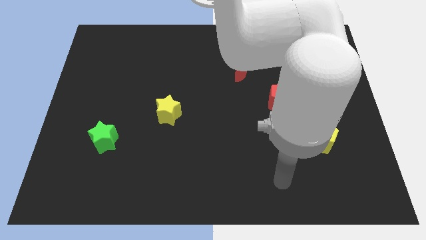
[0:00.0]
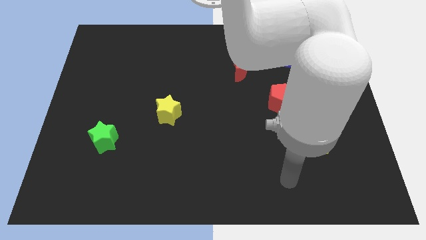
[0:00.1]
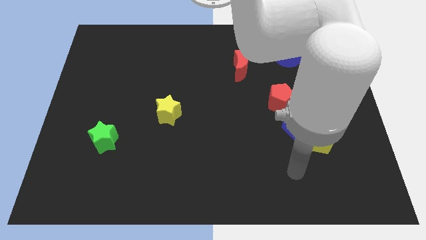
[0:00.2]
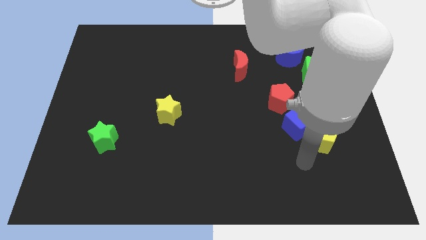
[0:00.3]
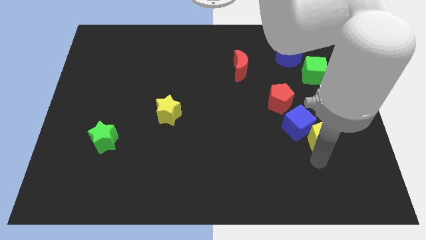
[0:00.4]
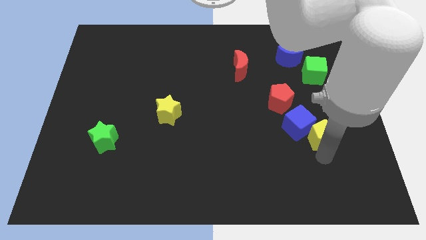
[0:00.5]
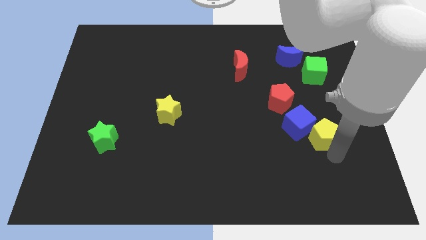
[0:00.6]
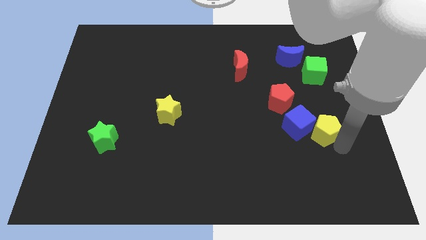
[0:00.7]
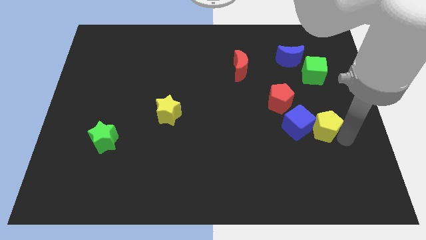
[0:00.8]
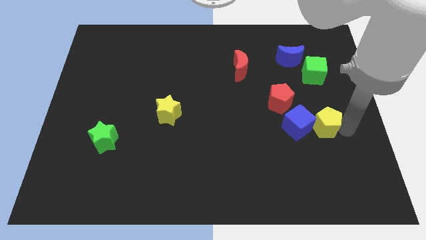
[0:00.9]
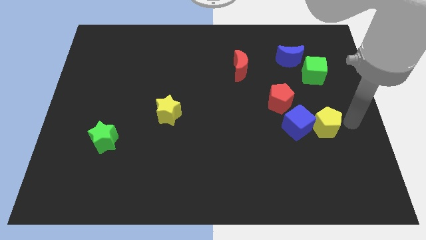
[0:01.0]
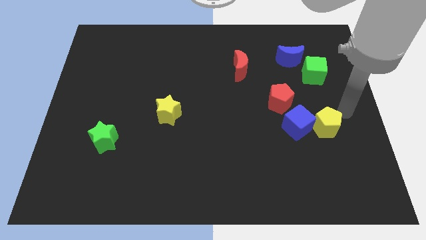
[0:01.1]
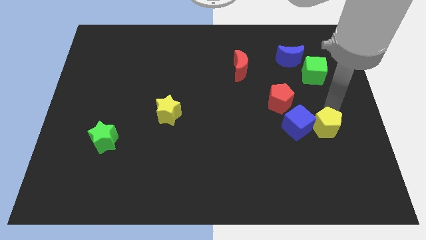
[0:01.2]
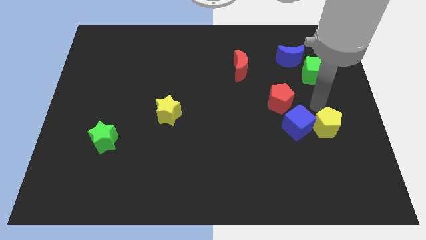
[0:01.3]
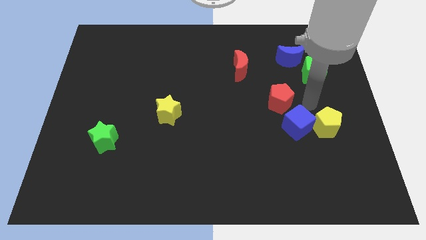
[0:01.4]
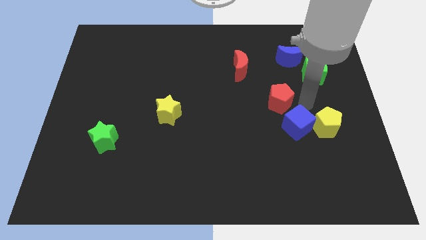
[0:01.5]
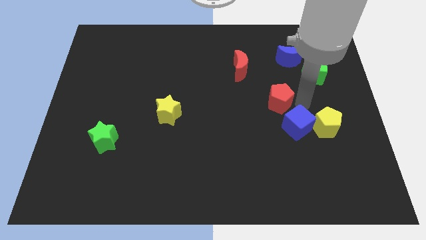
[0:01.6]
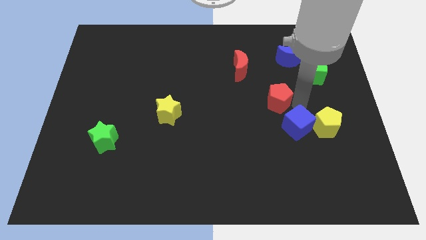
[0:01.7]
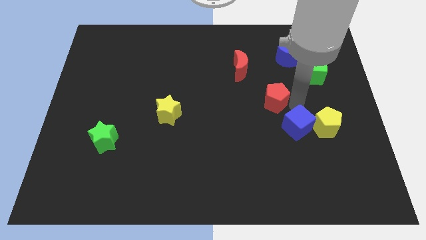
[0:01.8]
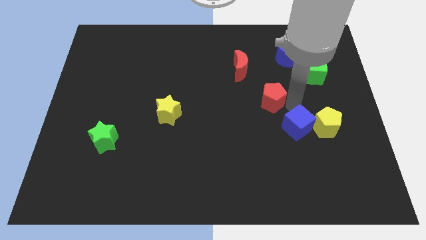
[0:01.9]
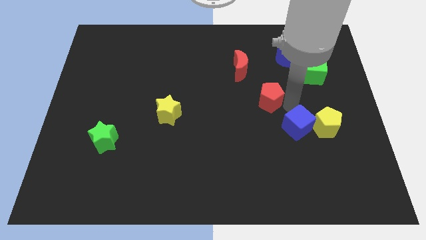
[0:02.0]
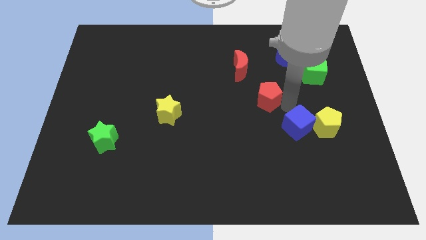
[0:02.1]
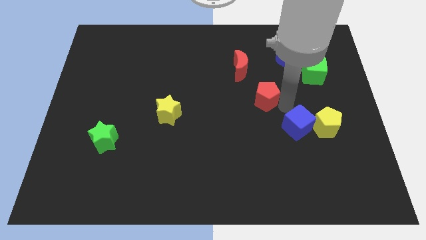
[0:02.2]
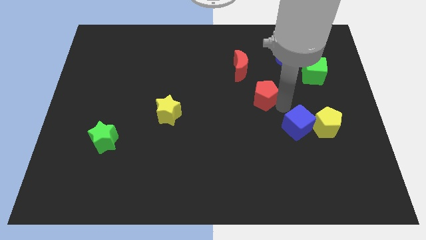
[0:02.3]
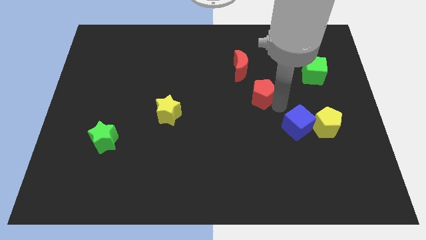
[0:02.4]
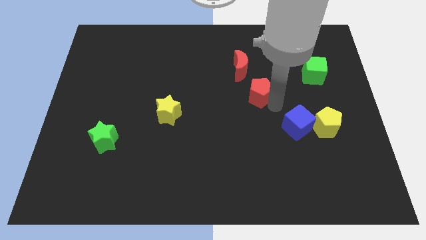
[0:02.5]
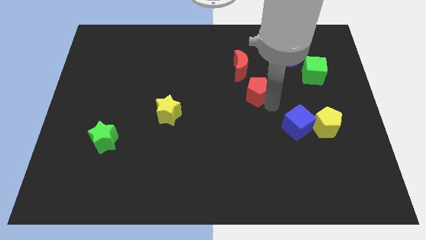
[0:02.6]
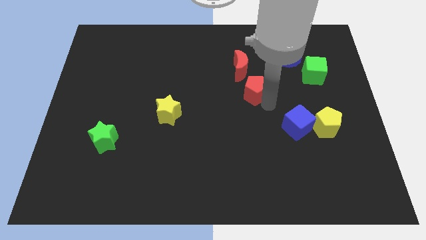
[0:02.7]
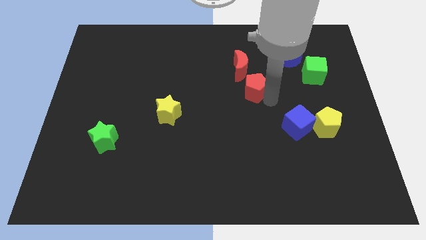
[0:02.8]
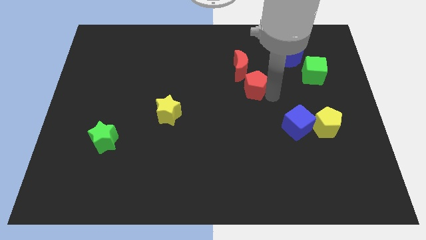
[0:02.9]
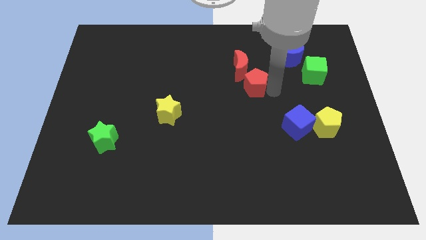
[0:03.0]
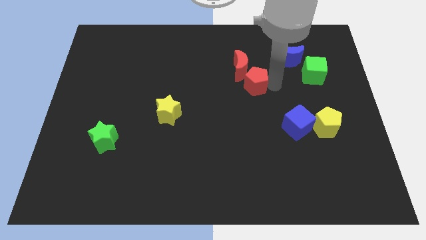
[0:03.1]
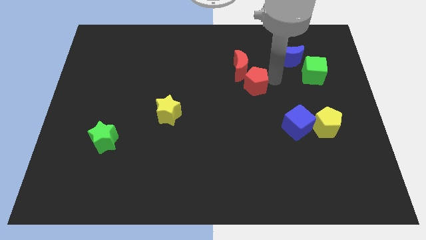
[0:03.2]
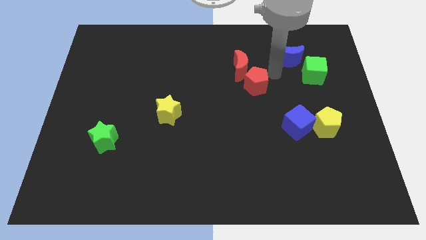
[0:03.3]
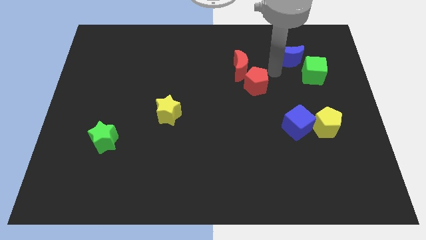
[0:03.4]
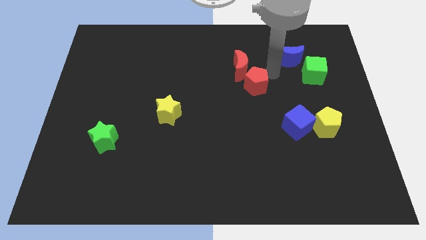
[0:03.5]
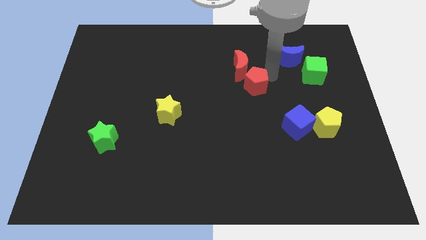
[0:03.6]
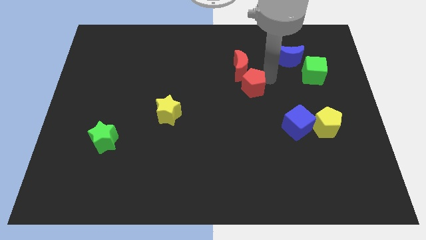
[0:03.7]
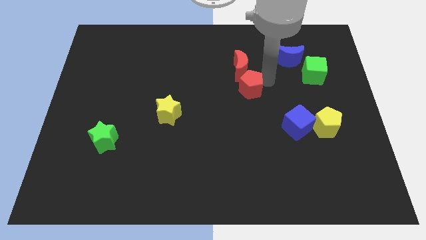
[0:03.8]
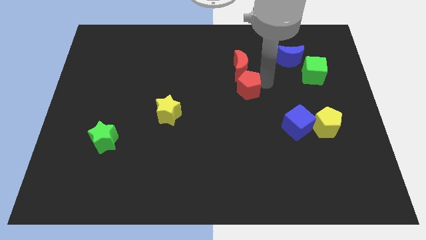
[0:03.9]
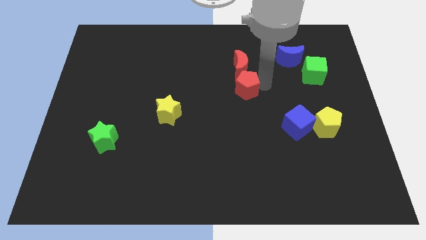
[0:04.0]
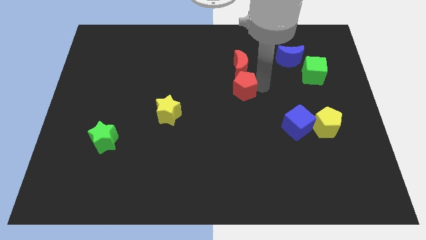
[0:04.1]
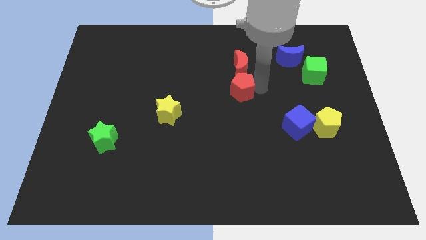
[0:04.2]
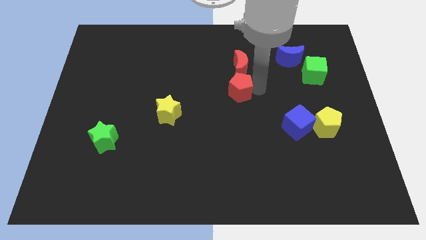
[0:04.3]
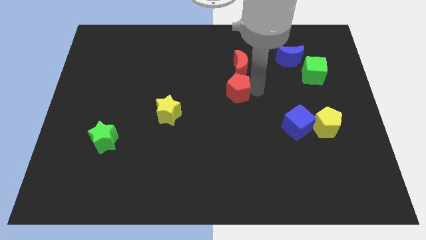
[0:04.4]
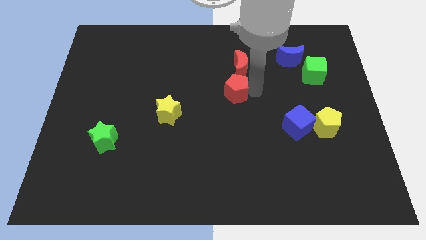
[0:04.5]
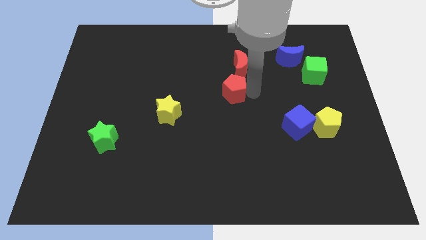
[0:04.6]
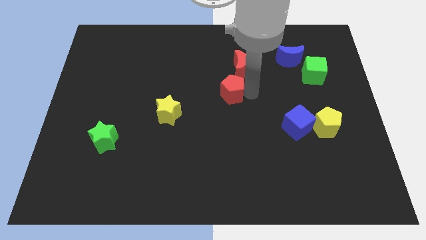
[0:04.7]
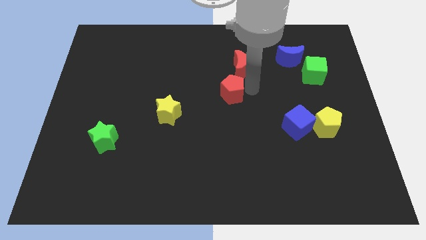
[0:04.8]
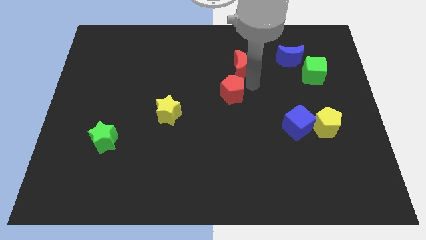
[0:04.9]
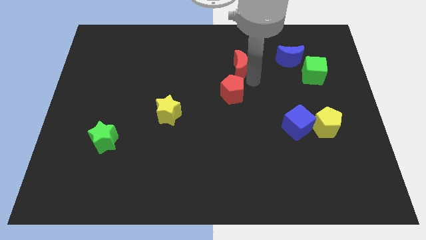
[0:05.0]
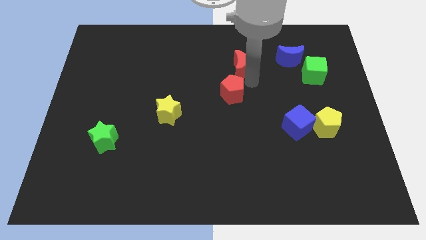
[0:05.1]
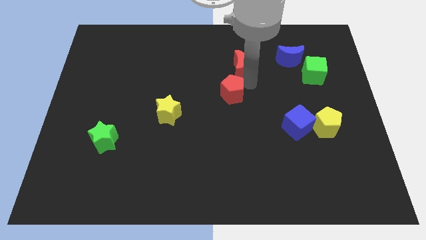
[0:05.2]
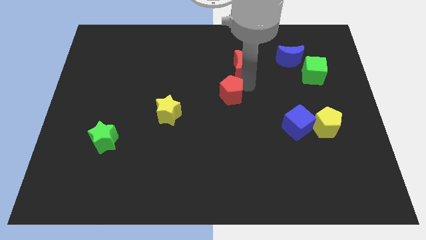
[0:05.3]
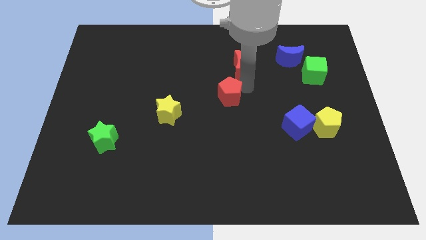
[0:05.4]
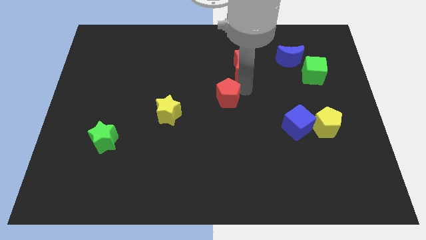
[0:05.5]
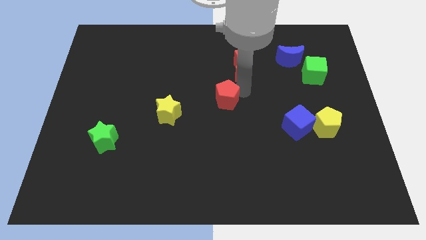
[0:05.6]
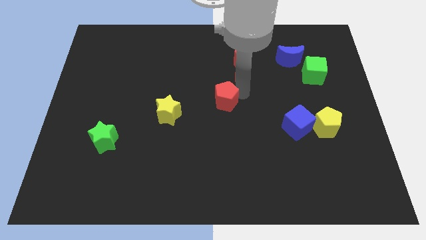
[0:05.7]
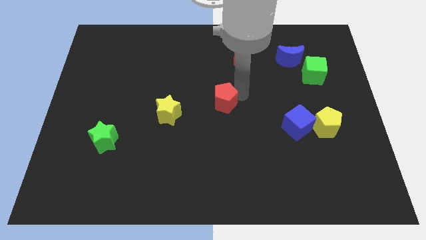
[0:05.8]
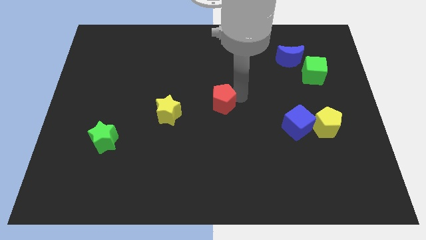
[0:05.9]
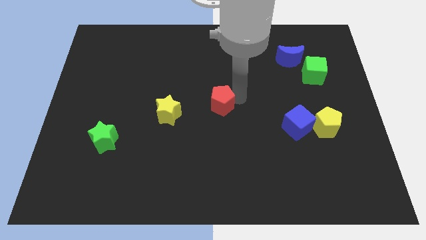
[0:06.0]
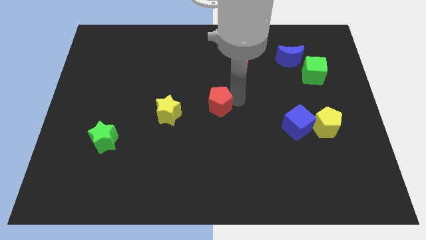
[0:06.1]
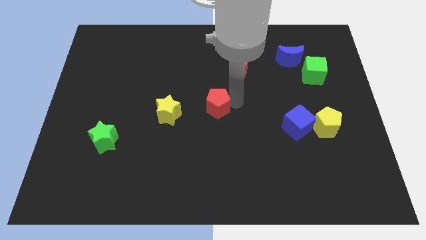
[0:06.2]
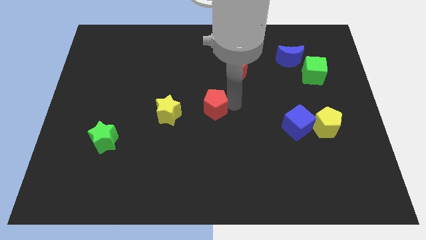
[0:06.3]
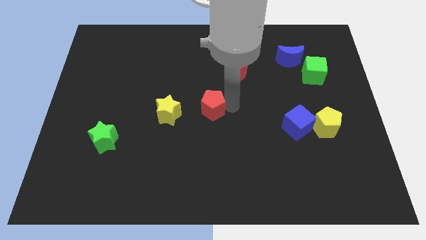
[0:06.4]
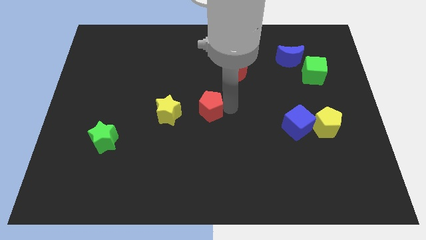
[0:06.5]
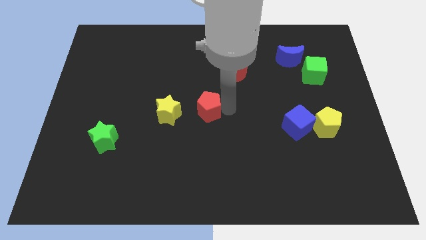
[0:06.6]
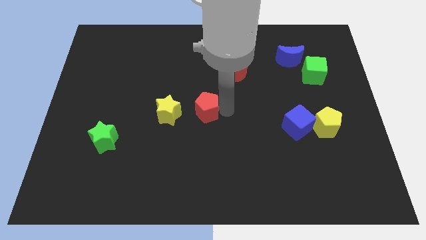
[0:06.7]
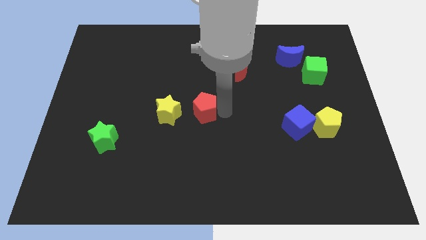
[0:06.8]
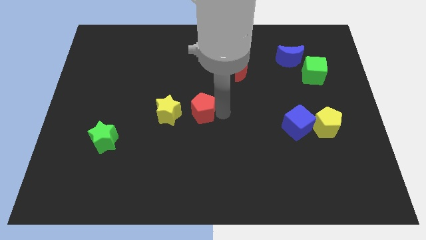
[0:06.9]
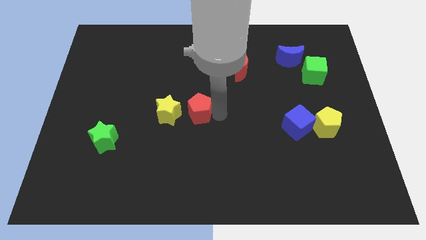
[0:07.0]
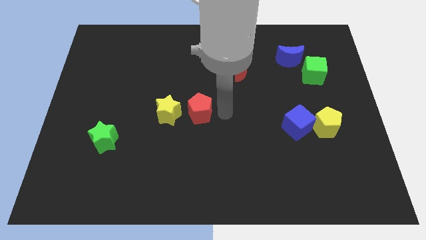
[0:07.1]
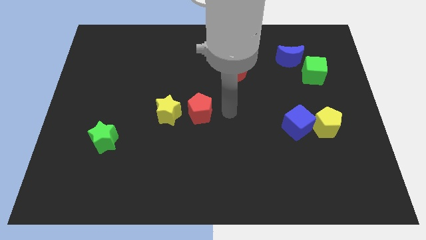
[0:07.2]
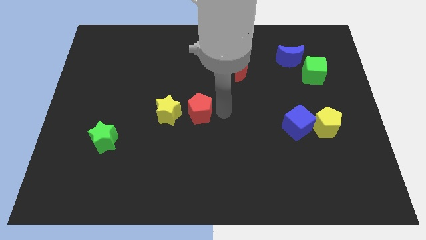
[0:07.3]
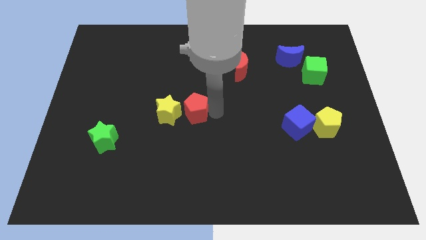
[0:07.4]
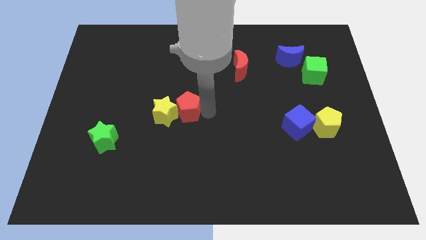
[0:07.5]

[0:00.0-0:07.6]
slide the red pentagon close to the yellow star

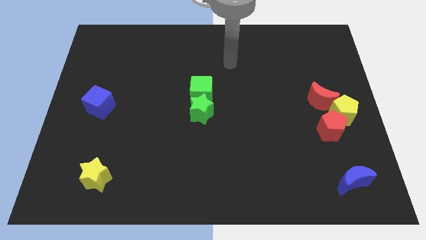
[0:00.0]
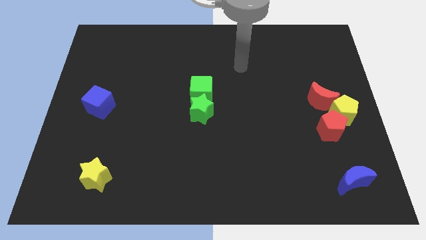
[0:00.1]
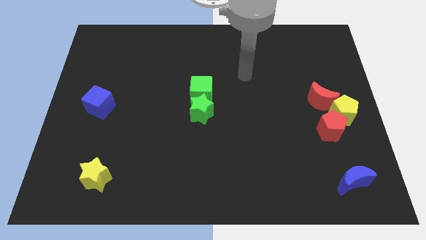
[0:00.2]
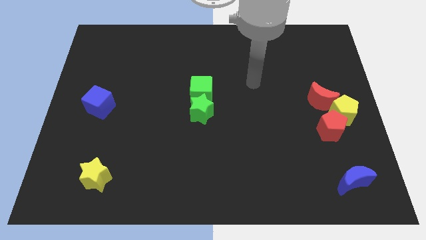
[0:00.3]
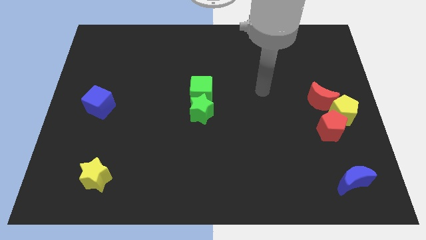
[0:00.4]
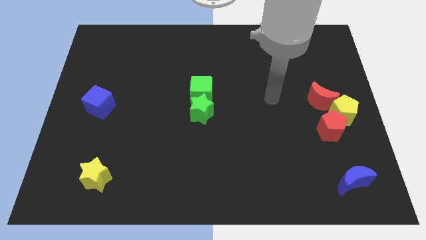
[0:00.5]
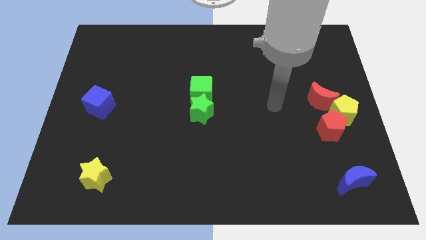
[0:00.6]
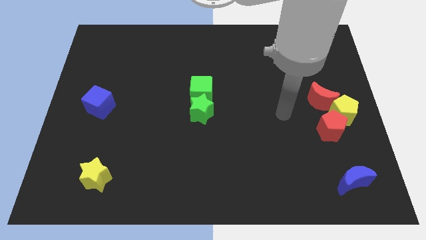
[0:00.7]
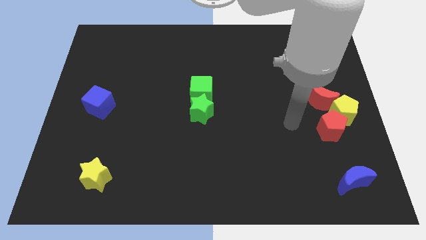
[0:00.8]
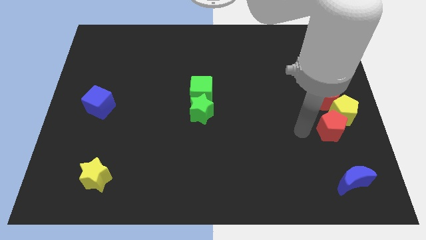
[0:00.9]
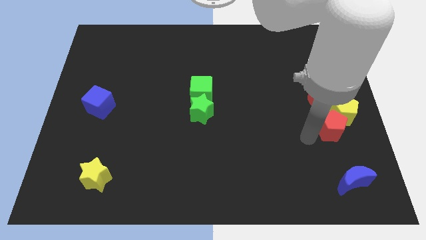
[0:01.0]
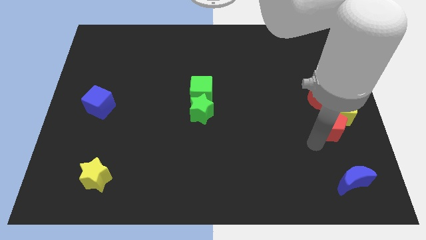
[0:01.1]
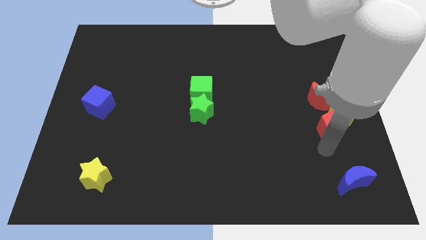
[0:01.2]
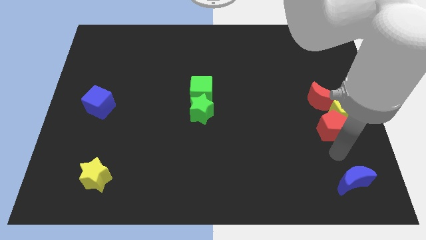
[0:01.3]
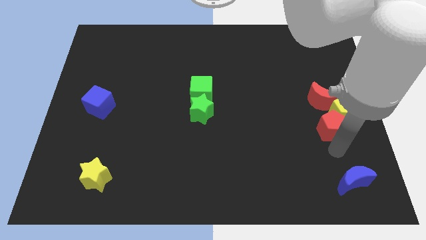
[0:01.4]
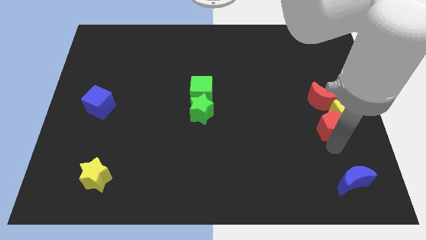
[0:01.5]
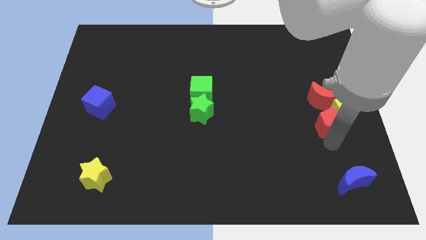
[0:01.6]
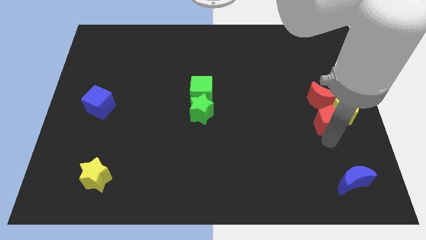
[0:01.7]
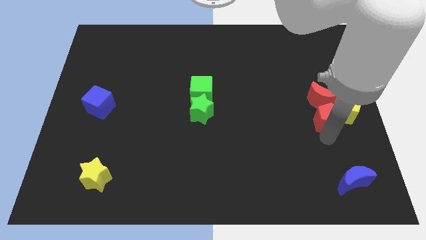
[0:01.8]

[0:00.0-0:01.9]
move the red pentagon towards the red moon
